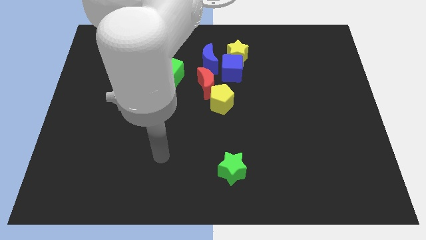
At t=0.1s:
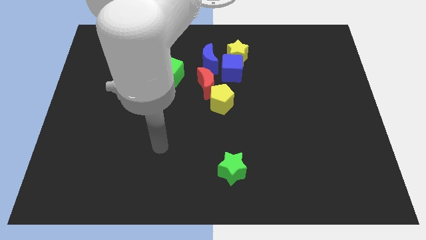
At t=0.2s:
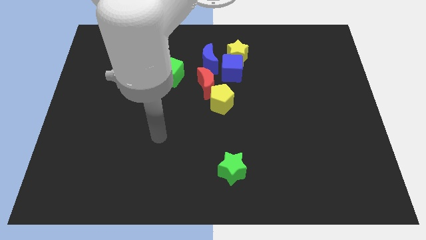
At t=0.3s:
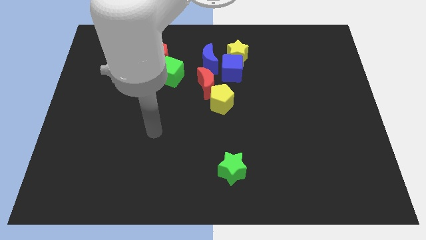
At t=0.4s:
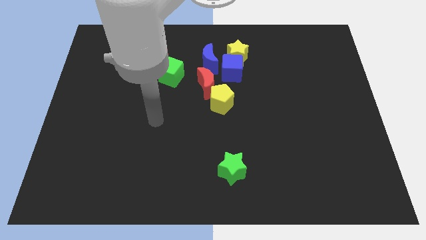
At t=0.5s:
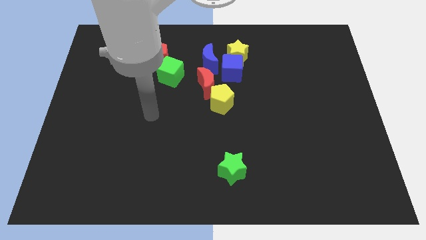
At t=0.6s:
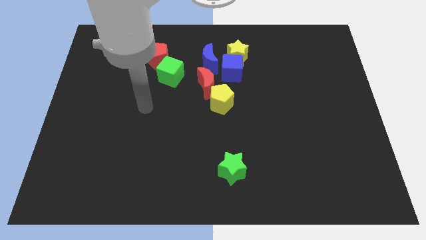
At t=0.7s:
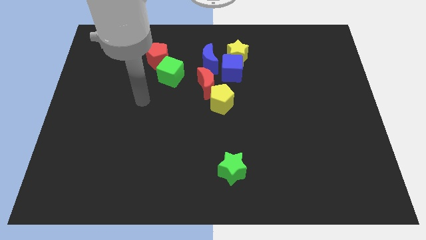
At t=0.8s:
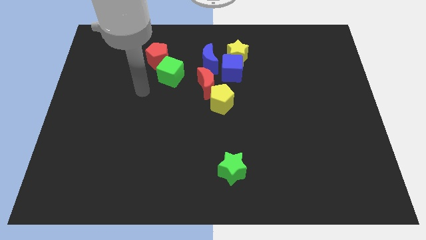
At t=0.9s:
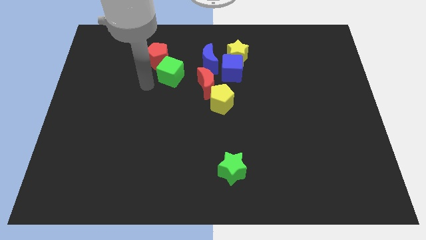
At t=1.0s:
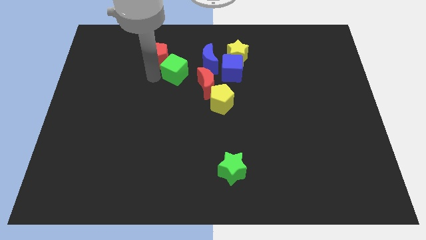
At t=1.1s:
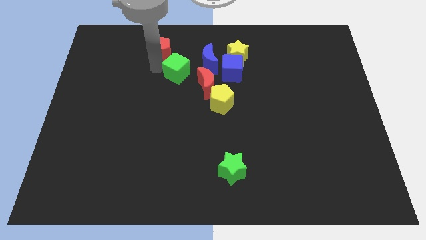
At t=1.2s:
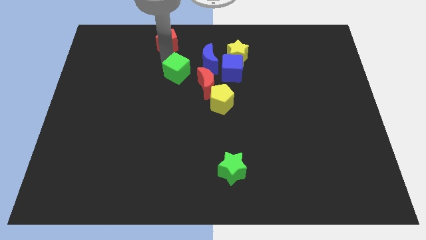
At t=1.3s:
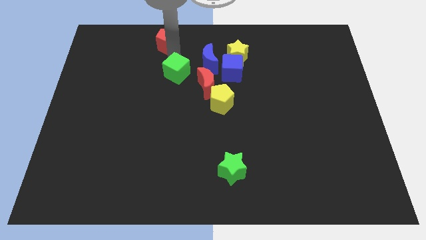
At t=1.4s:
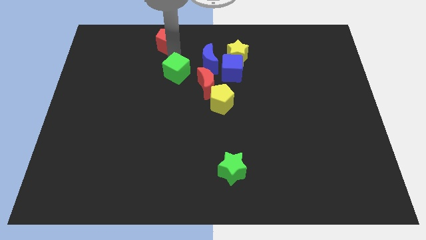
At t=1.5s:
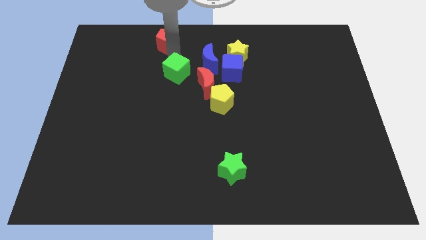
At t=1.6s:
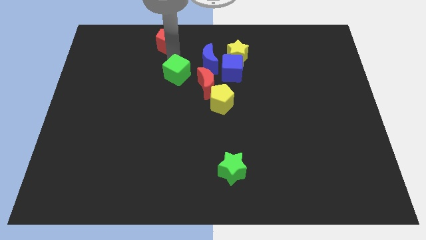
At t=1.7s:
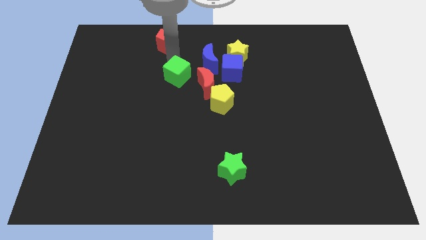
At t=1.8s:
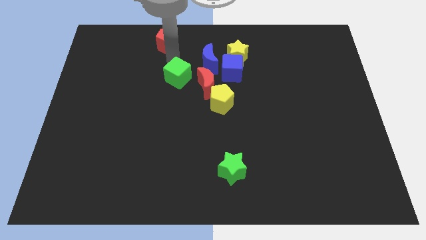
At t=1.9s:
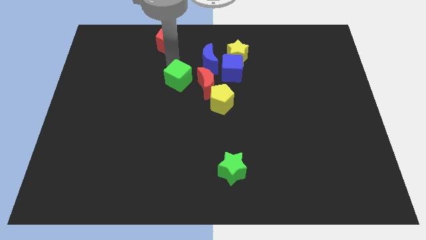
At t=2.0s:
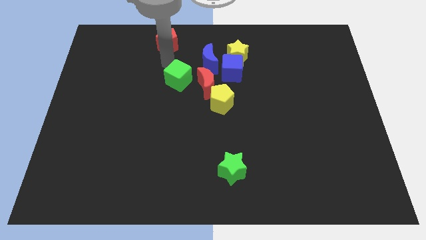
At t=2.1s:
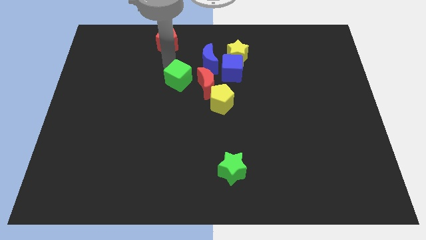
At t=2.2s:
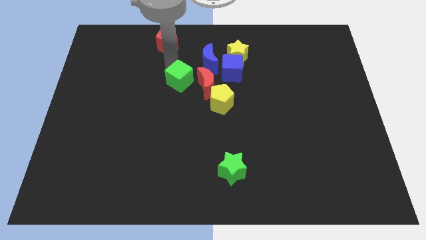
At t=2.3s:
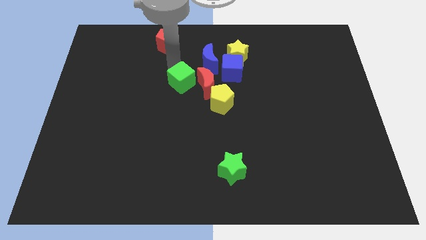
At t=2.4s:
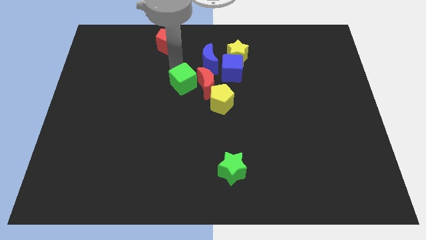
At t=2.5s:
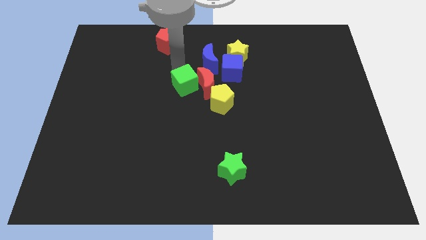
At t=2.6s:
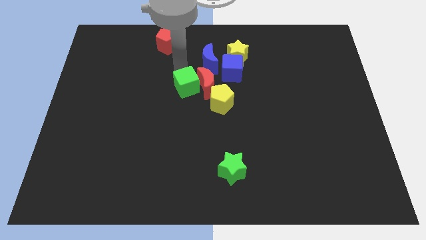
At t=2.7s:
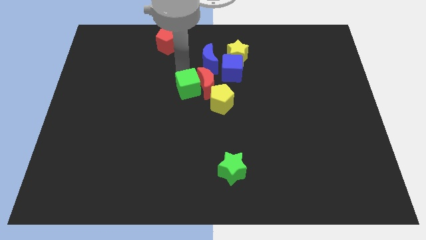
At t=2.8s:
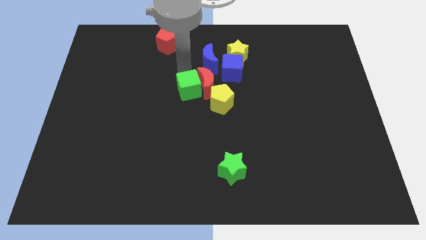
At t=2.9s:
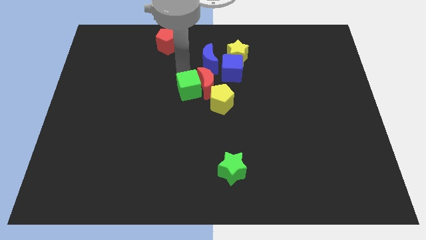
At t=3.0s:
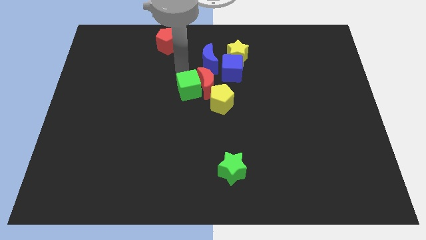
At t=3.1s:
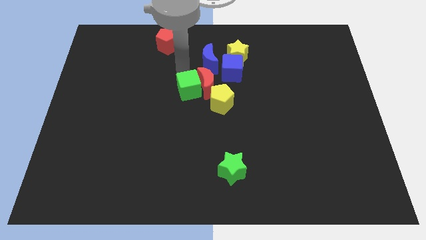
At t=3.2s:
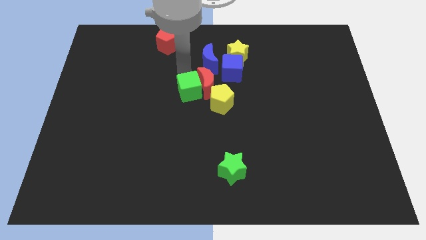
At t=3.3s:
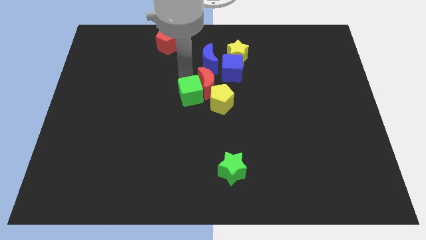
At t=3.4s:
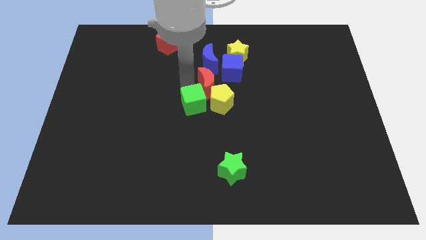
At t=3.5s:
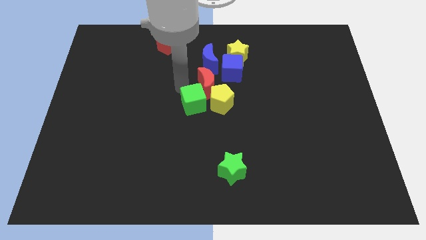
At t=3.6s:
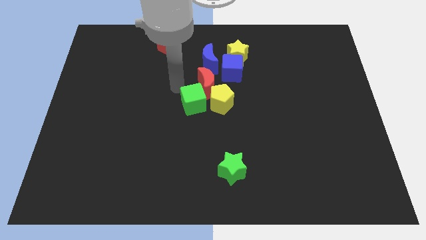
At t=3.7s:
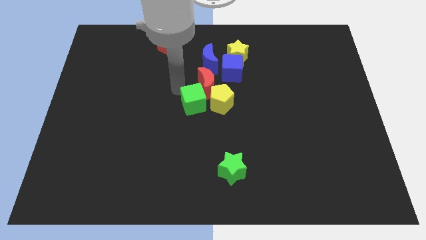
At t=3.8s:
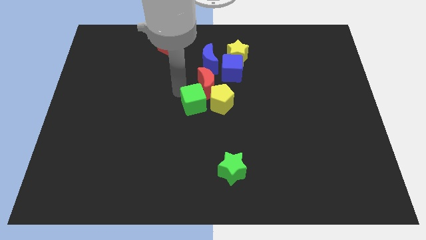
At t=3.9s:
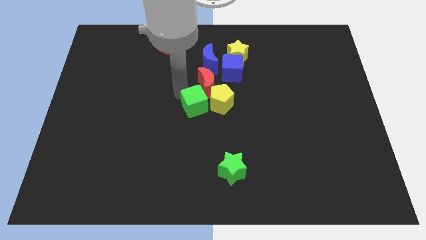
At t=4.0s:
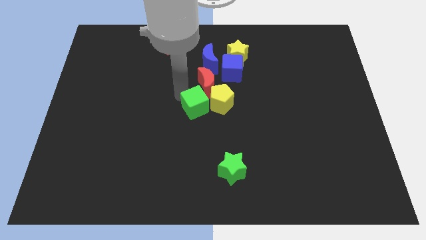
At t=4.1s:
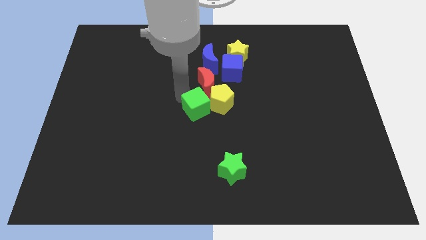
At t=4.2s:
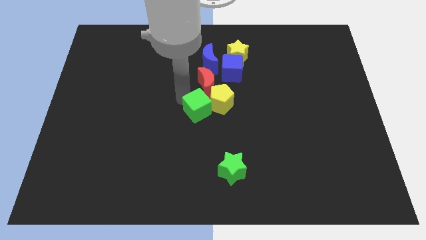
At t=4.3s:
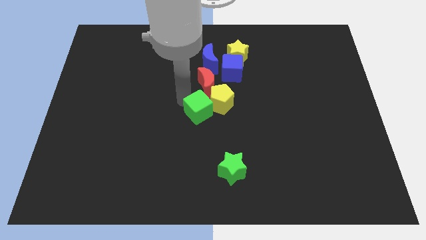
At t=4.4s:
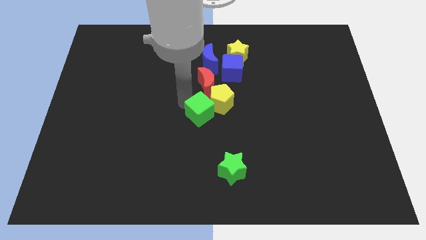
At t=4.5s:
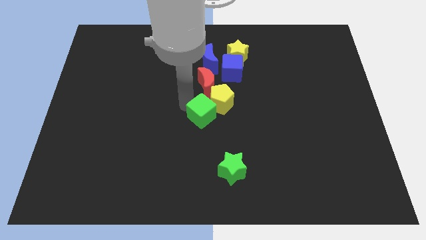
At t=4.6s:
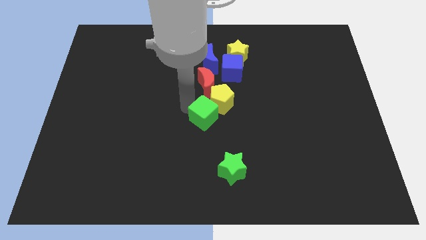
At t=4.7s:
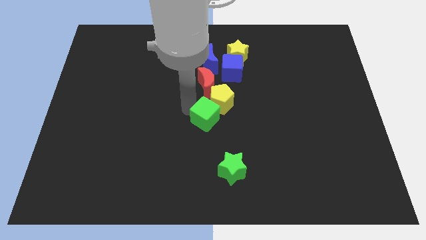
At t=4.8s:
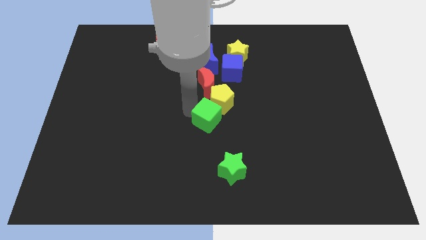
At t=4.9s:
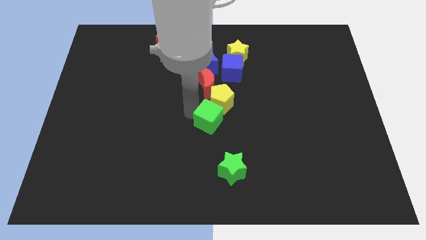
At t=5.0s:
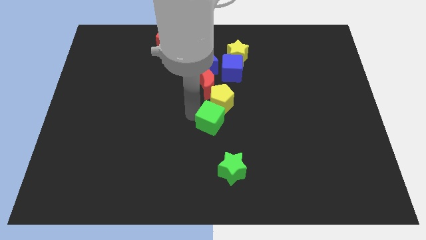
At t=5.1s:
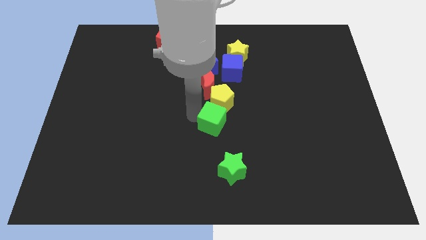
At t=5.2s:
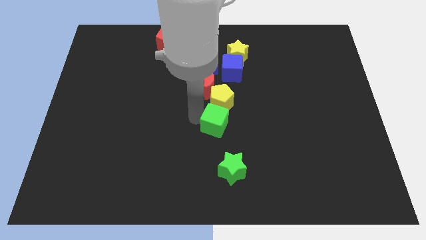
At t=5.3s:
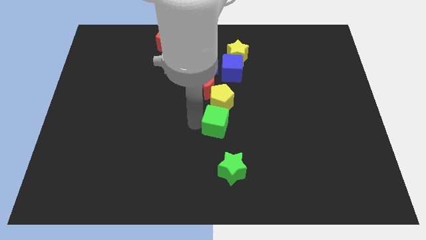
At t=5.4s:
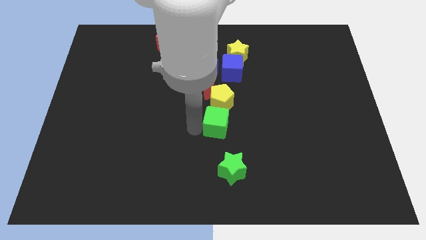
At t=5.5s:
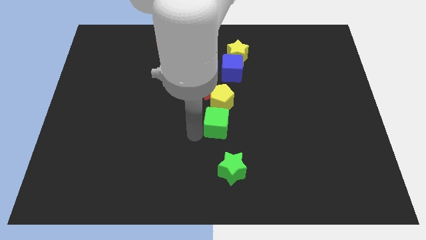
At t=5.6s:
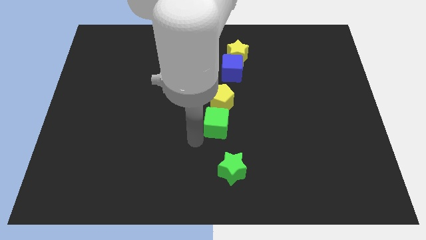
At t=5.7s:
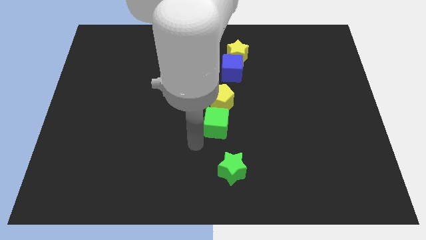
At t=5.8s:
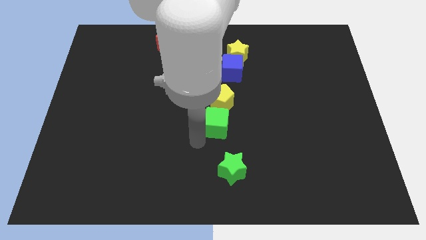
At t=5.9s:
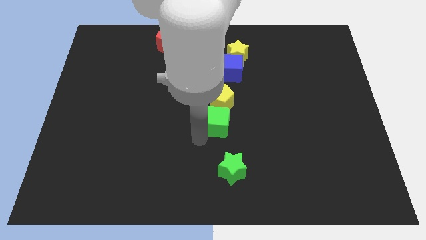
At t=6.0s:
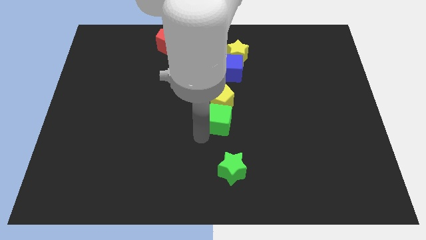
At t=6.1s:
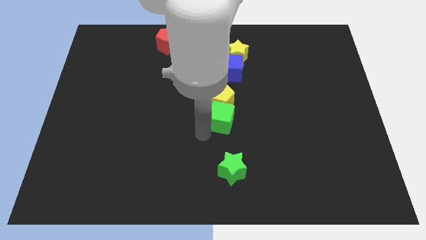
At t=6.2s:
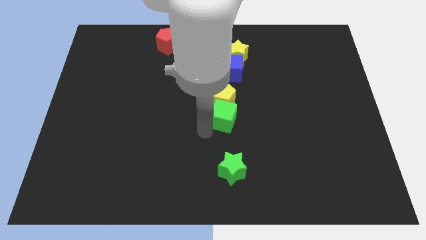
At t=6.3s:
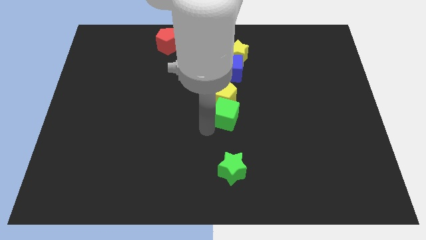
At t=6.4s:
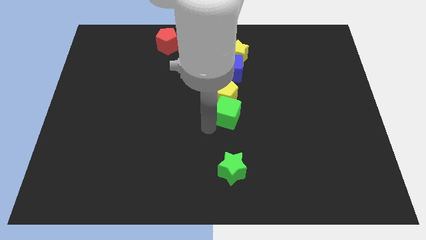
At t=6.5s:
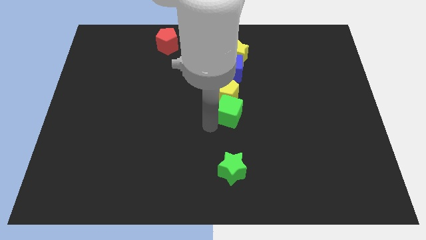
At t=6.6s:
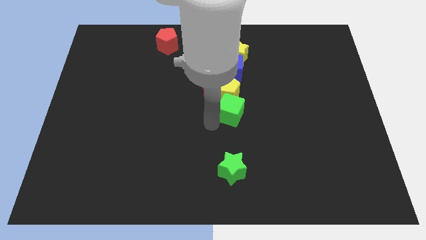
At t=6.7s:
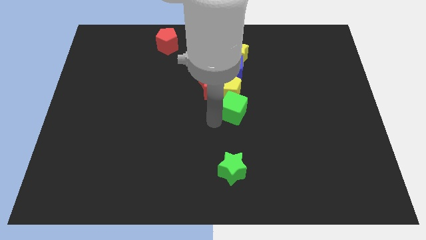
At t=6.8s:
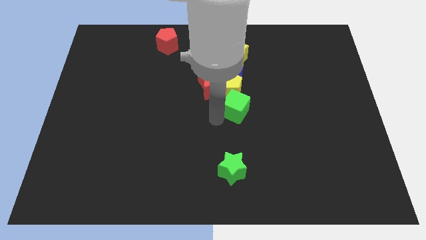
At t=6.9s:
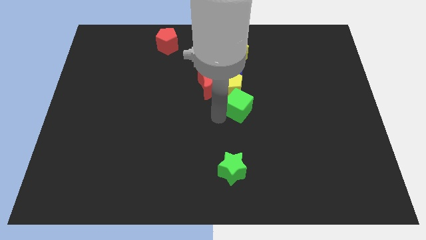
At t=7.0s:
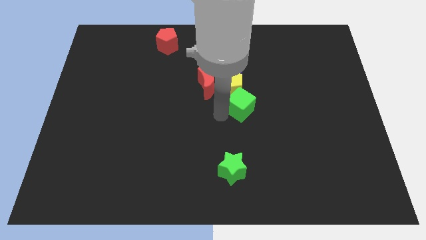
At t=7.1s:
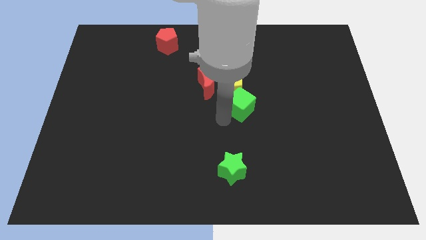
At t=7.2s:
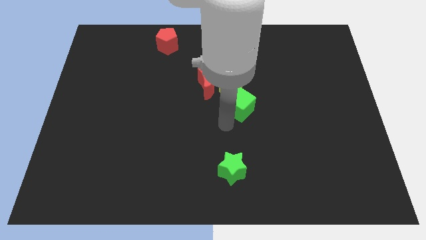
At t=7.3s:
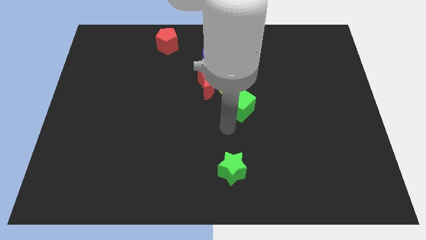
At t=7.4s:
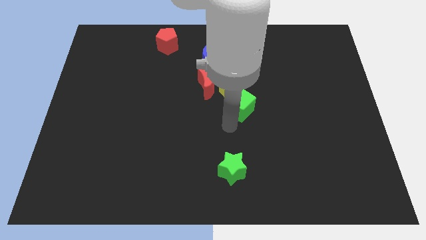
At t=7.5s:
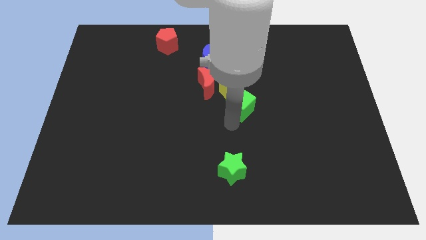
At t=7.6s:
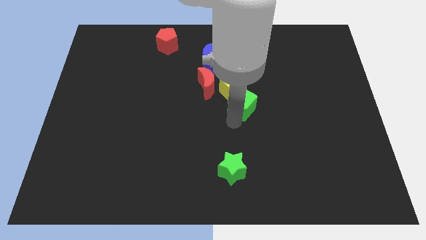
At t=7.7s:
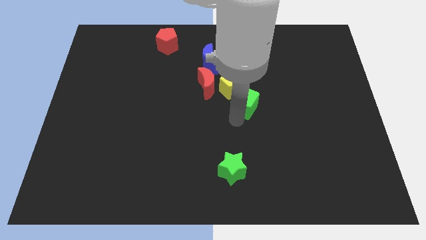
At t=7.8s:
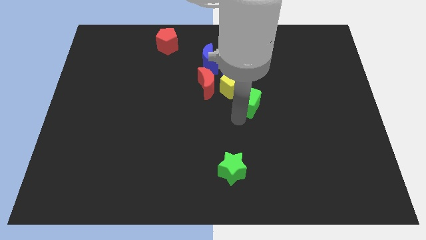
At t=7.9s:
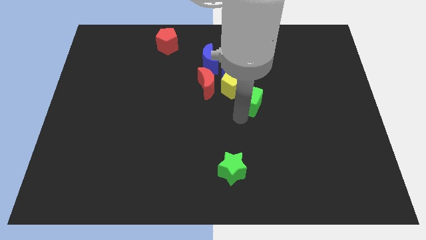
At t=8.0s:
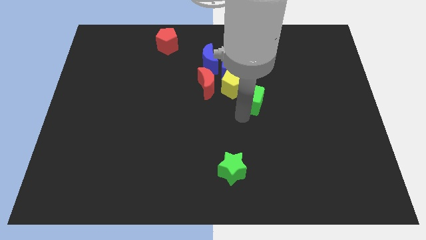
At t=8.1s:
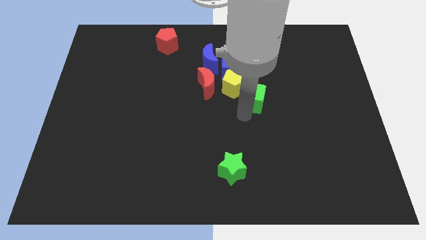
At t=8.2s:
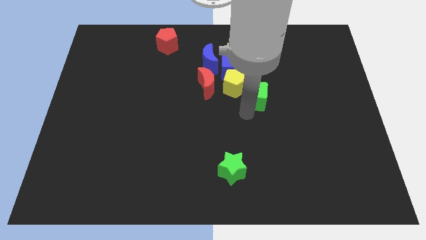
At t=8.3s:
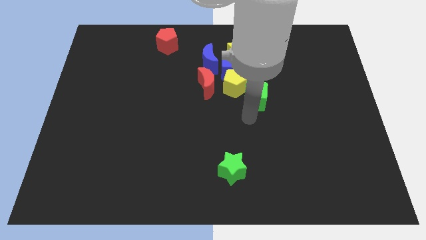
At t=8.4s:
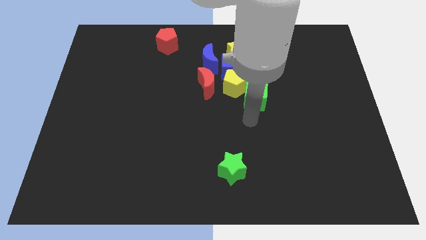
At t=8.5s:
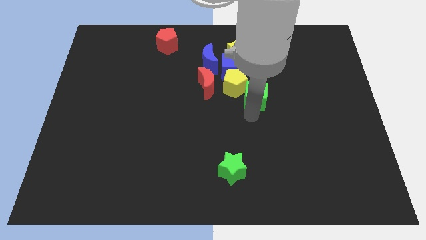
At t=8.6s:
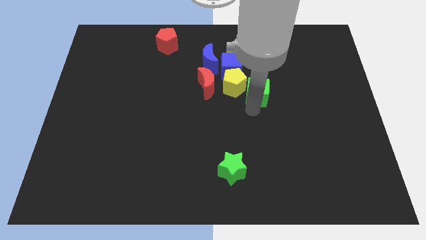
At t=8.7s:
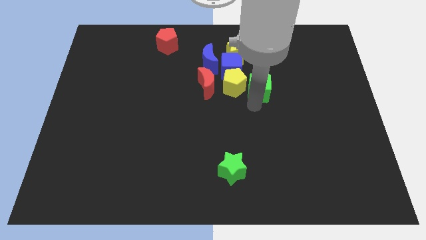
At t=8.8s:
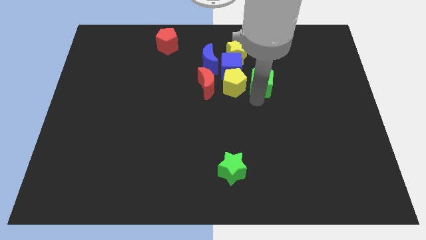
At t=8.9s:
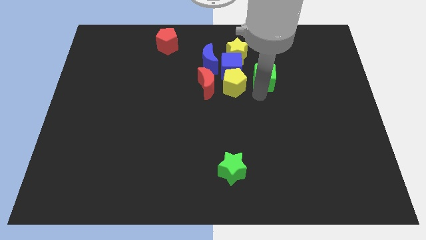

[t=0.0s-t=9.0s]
push the green cube to the bottom right of the yellow star
